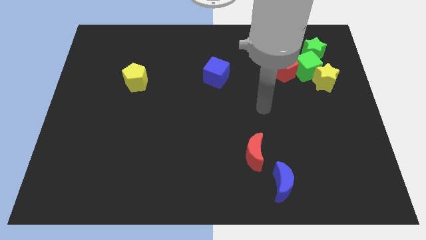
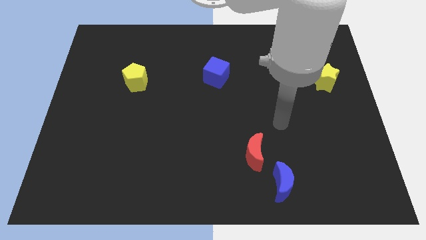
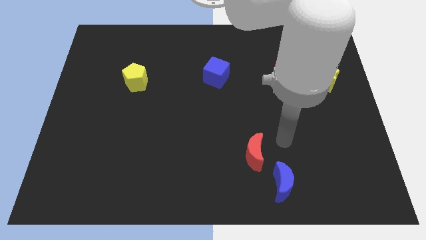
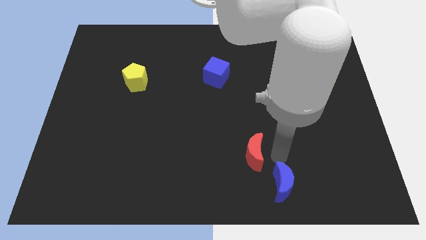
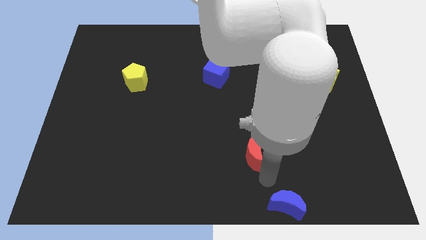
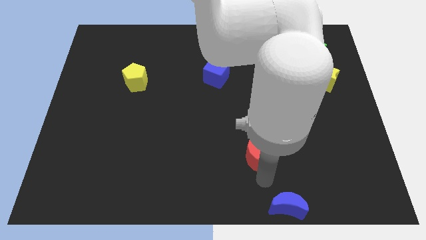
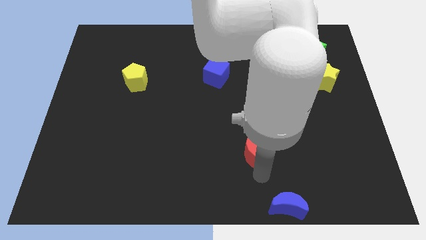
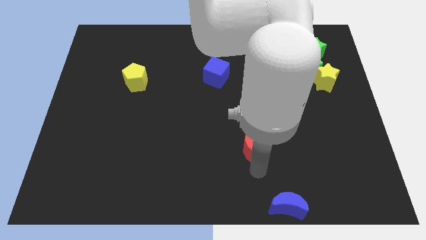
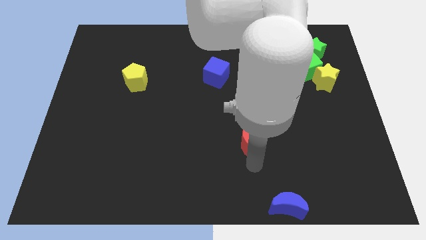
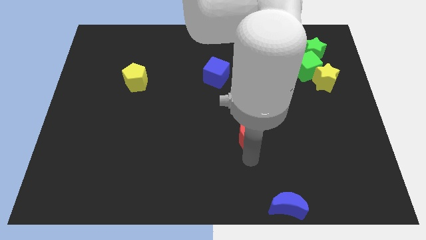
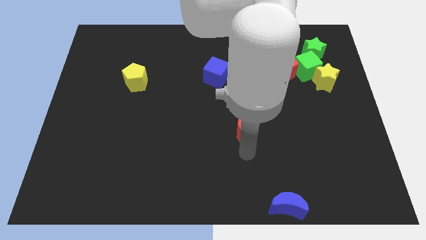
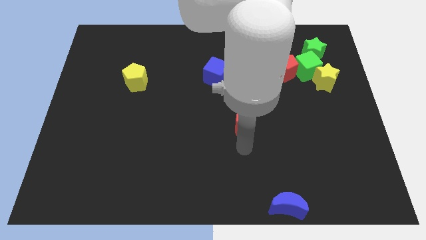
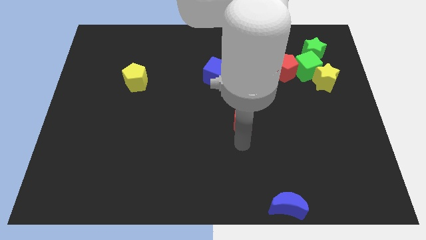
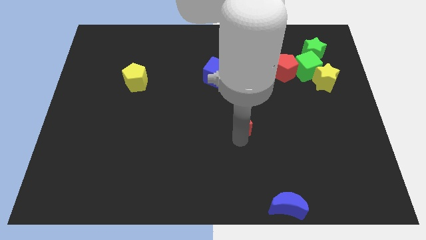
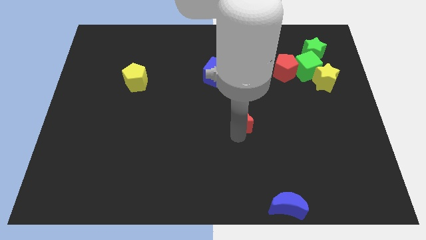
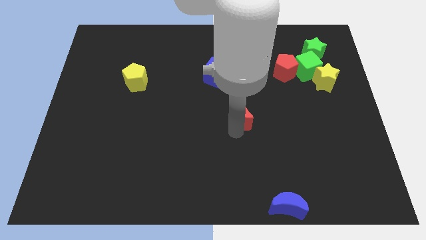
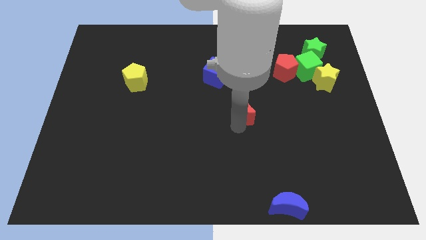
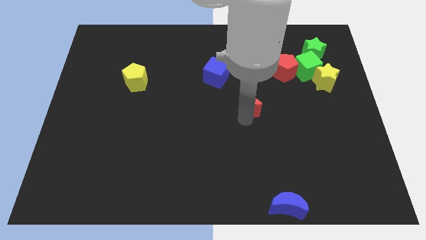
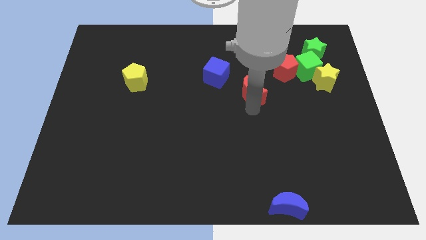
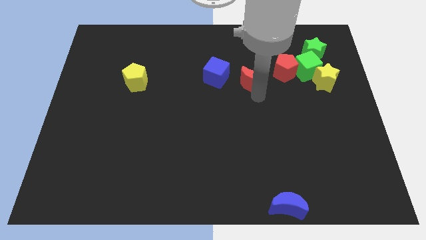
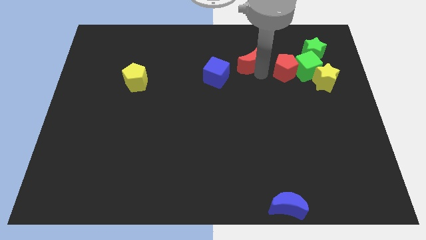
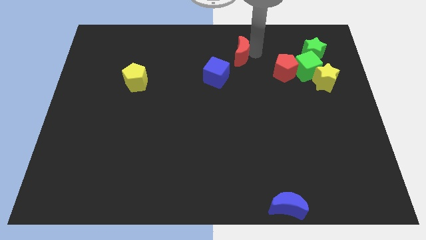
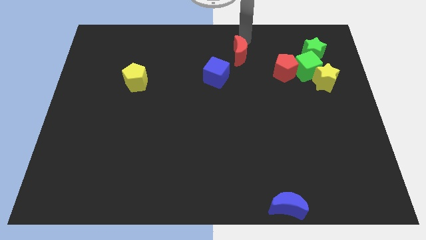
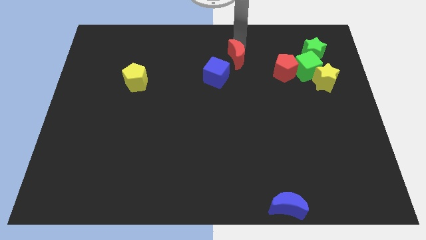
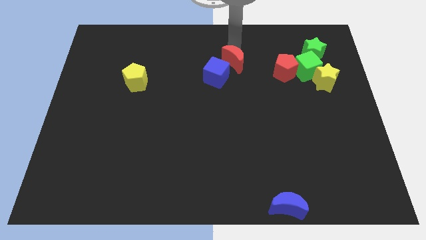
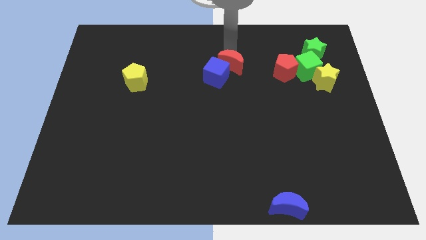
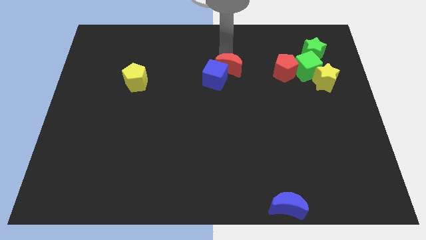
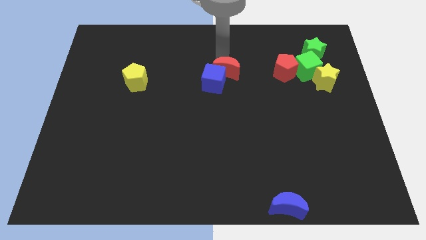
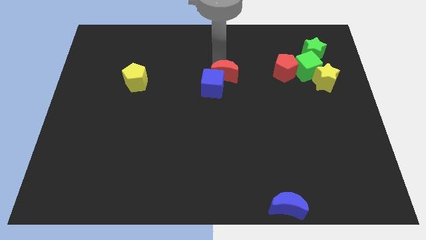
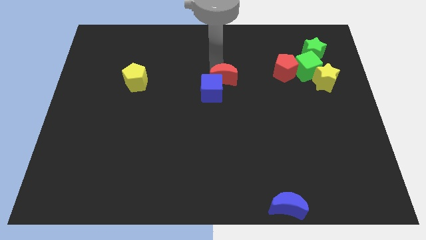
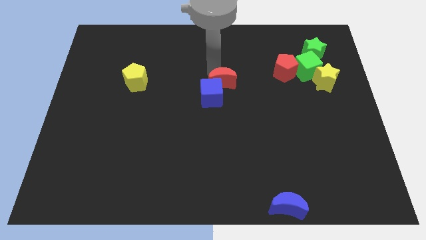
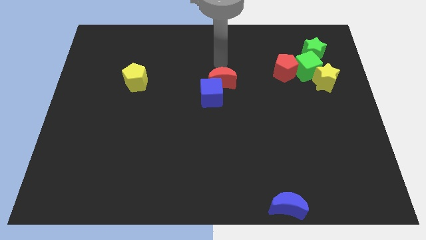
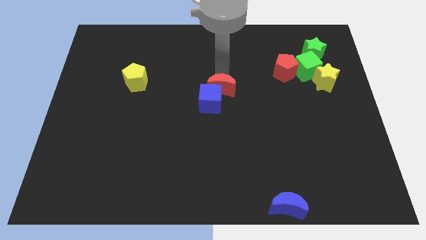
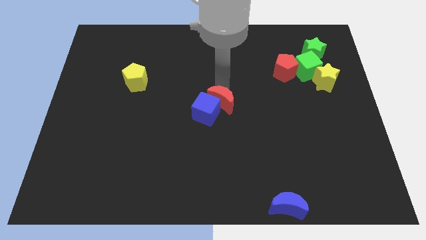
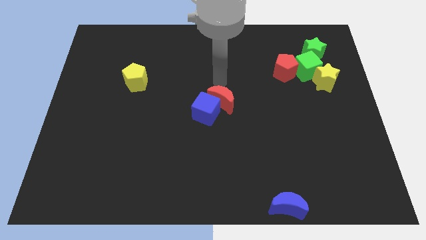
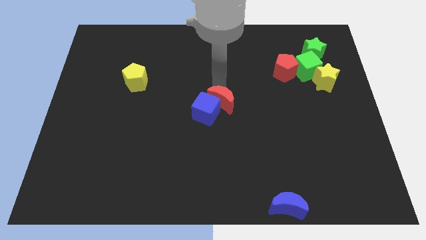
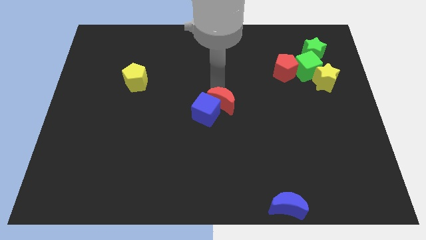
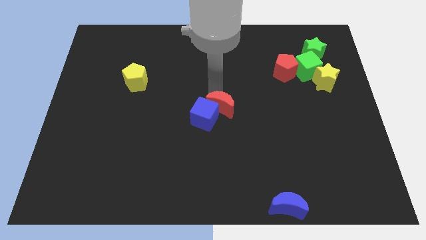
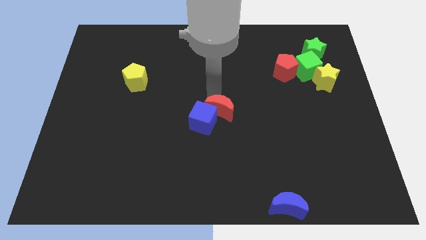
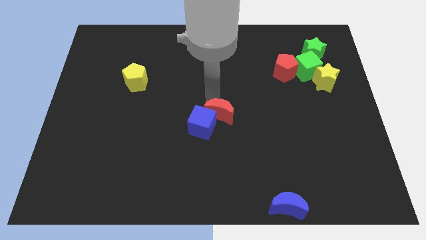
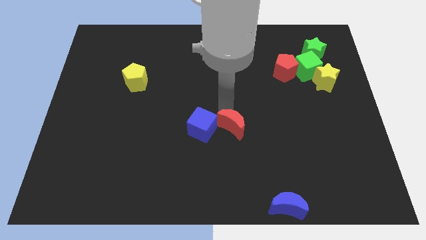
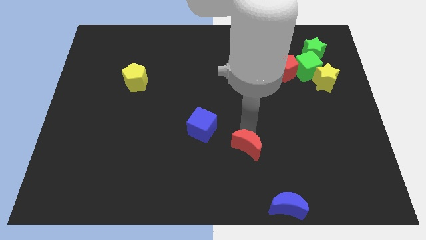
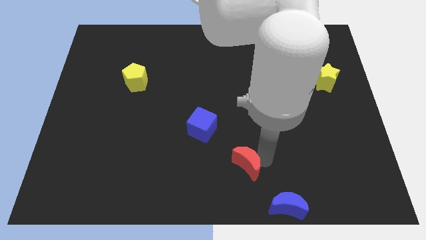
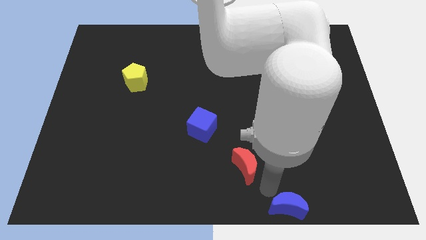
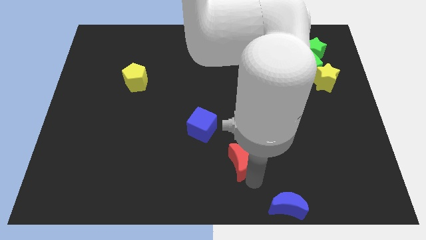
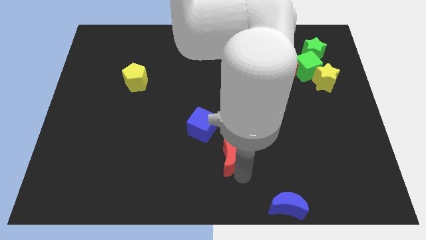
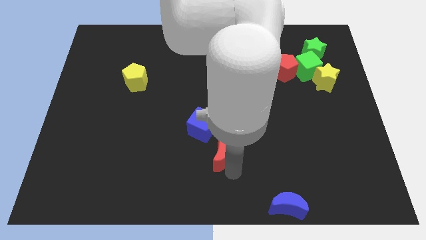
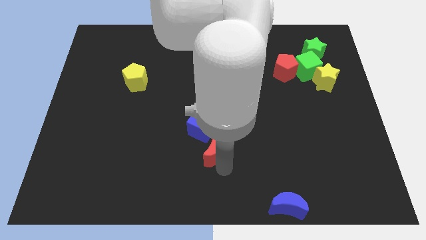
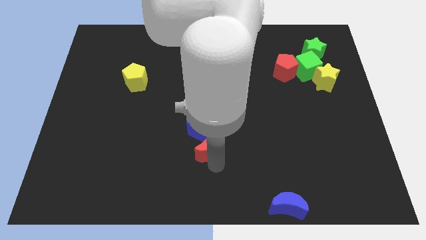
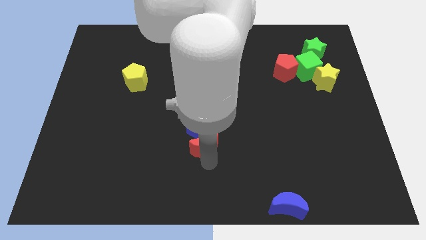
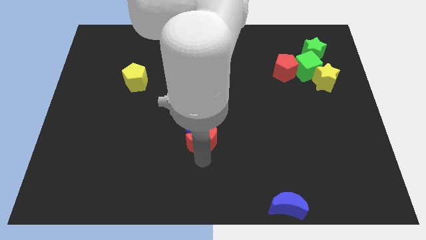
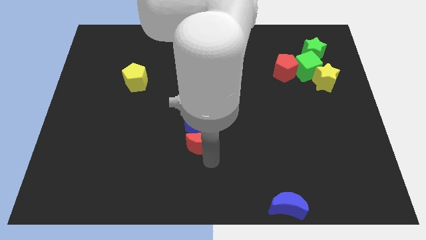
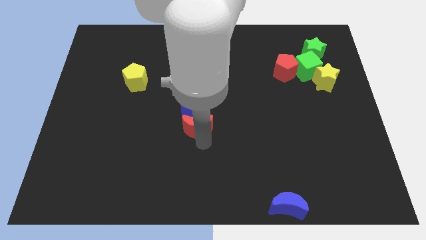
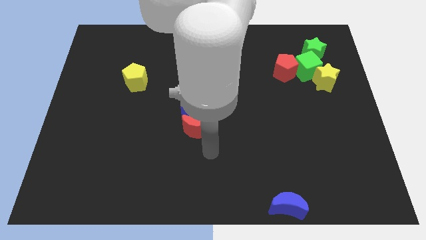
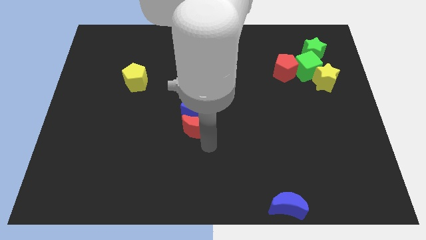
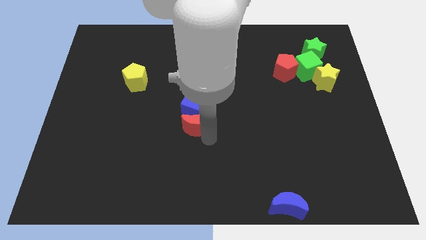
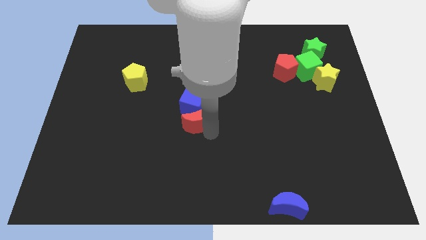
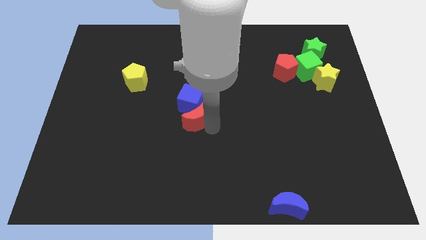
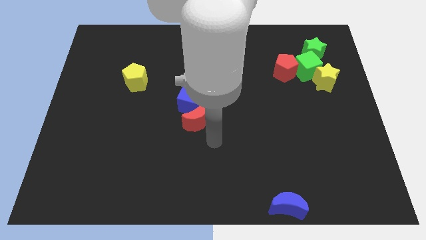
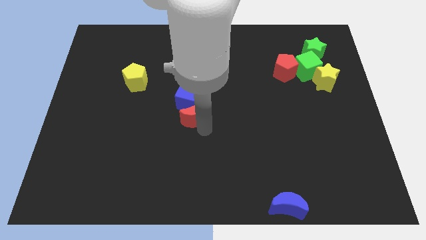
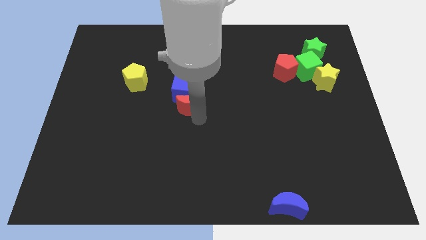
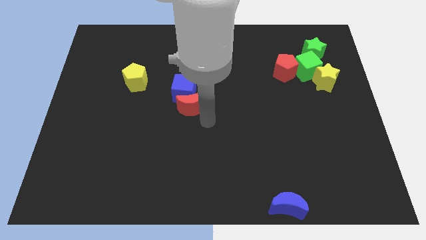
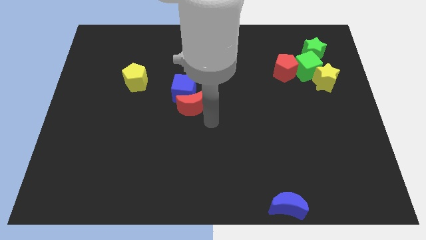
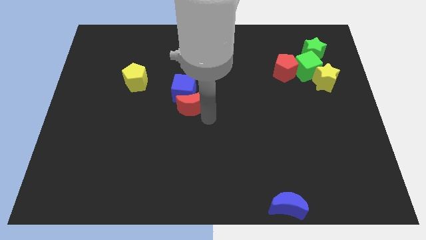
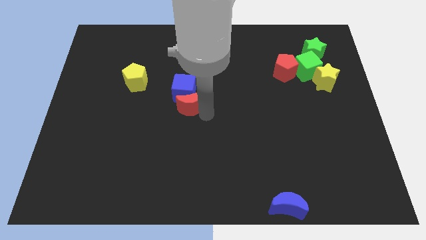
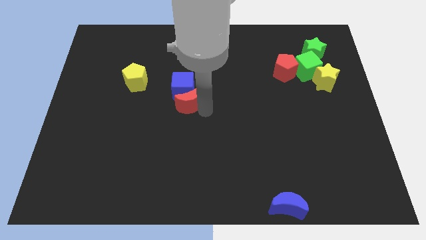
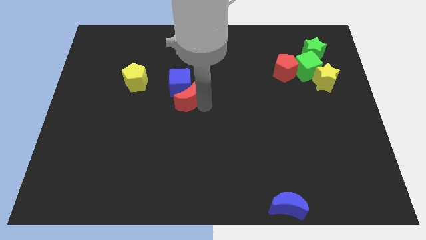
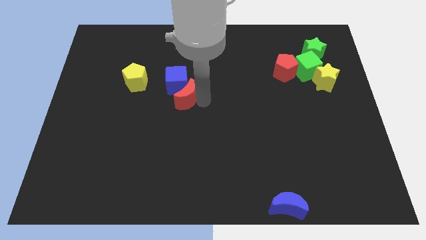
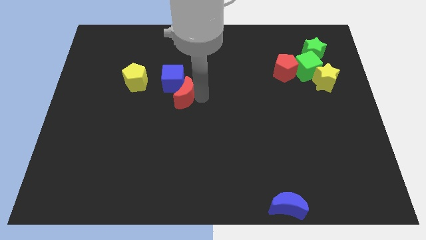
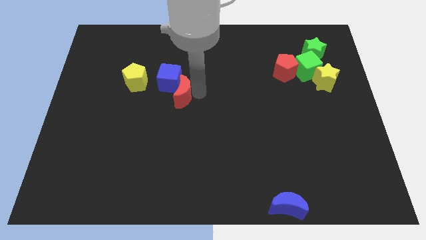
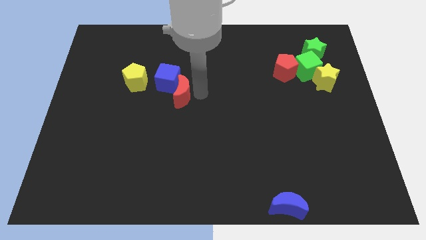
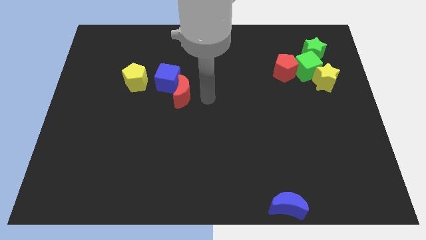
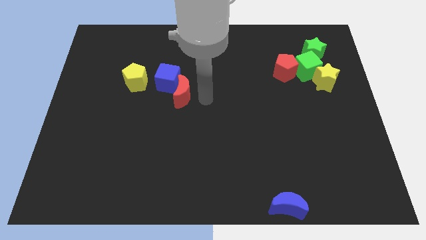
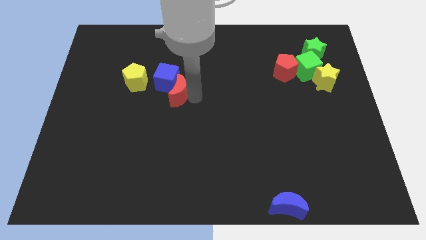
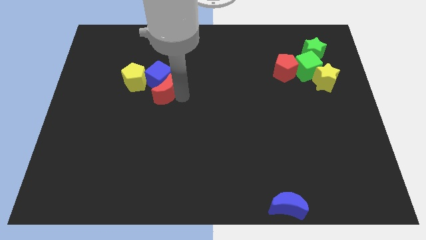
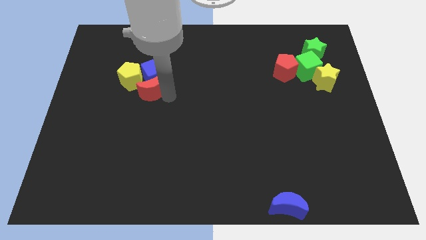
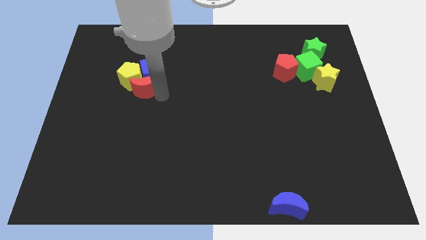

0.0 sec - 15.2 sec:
move the red moon next to the yellow pentagon
